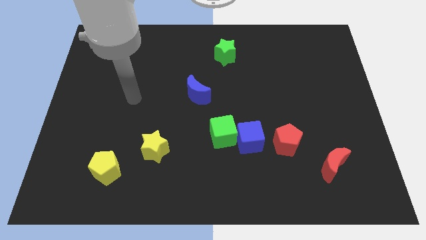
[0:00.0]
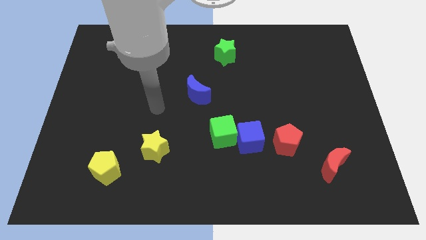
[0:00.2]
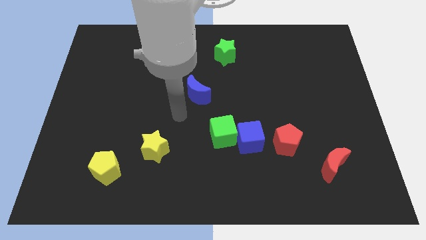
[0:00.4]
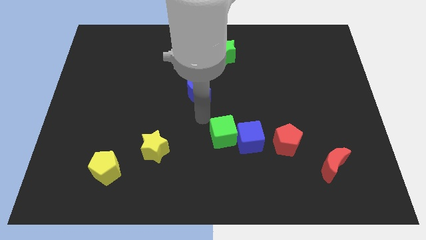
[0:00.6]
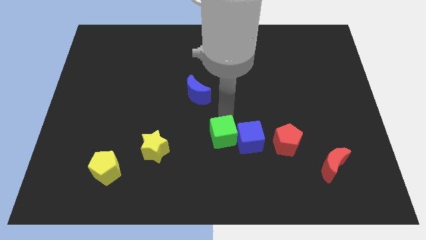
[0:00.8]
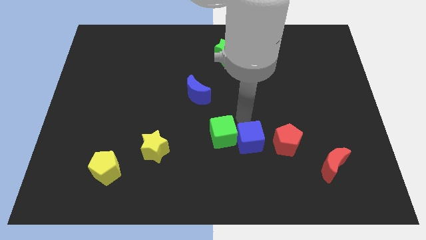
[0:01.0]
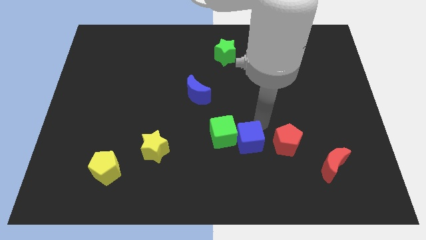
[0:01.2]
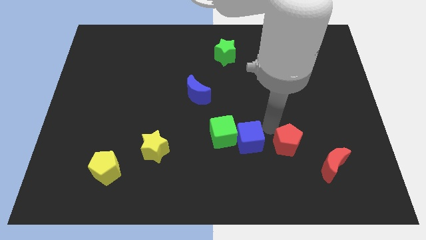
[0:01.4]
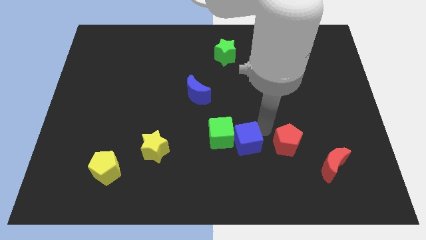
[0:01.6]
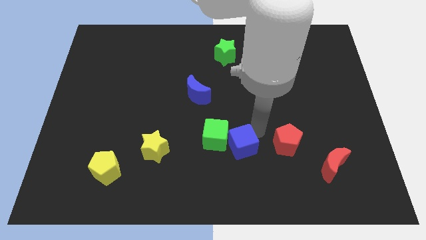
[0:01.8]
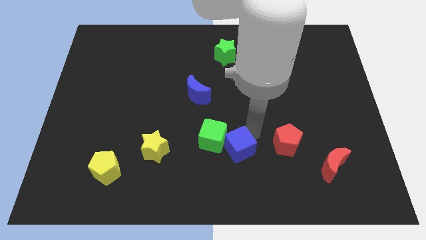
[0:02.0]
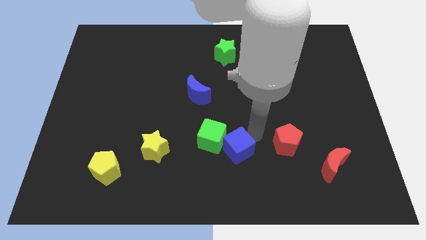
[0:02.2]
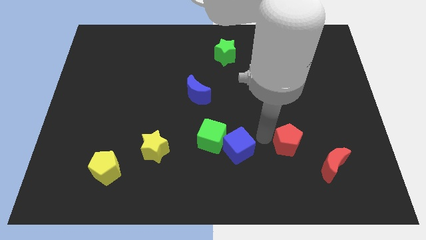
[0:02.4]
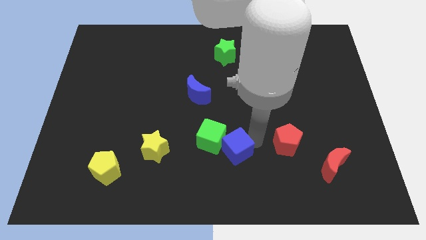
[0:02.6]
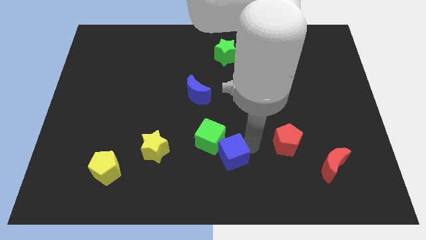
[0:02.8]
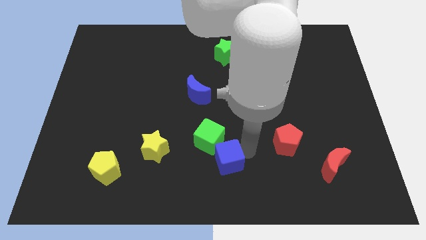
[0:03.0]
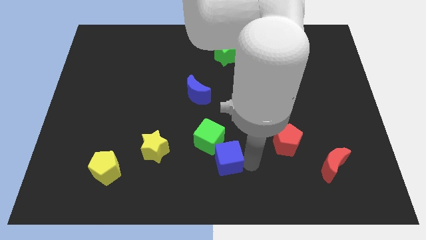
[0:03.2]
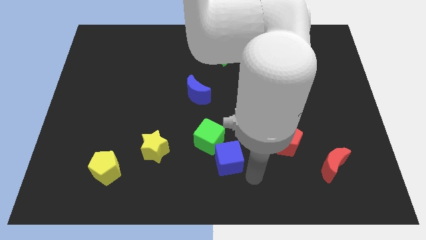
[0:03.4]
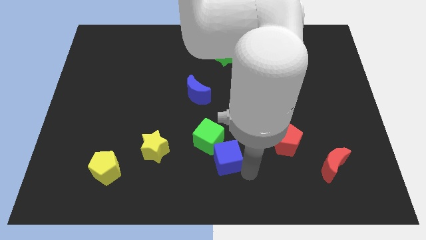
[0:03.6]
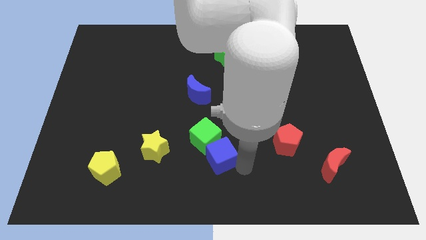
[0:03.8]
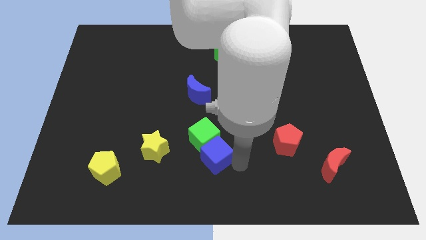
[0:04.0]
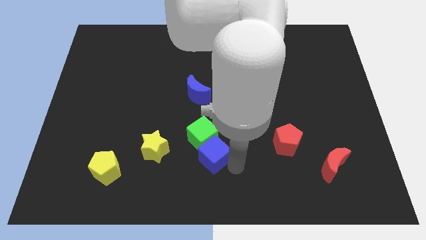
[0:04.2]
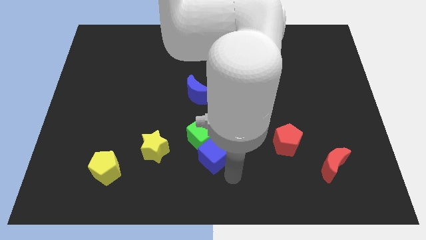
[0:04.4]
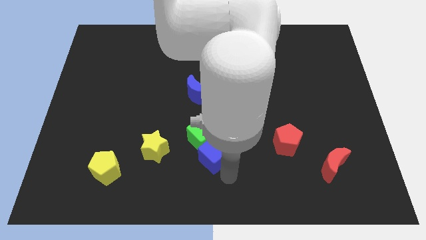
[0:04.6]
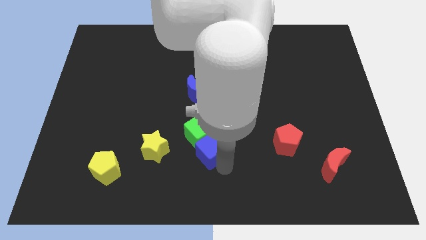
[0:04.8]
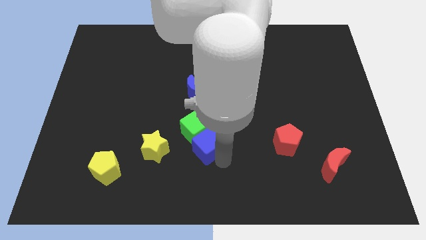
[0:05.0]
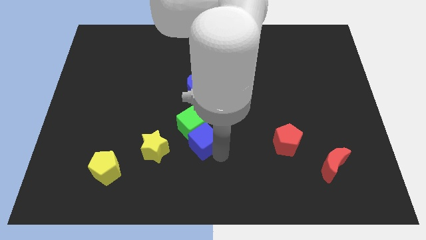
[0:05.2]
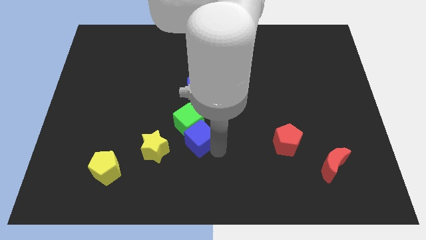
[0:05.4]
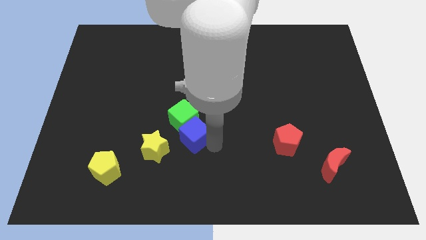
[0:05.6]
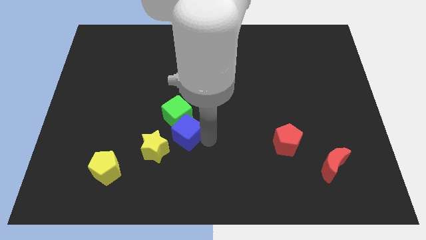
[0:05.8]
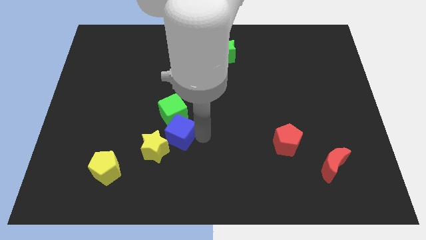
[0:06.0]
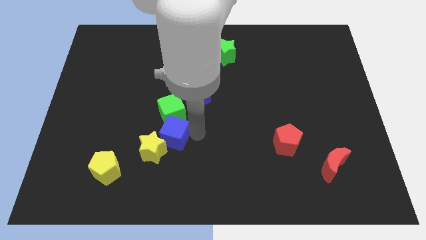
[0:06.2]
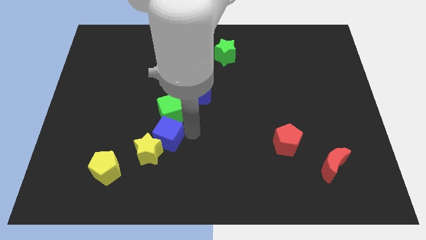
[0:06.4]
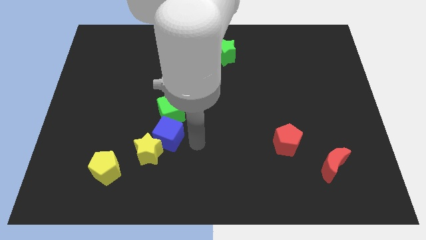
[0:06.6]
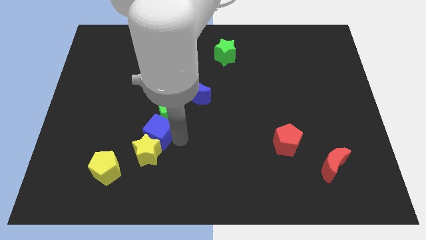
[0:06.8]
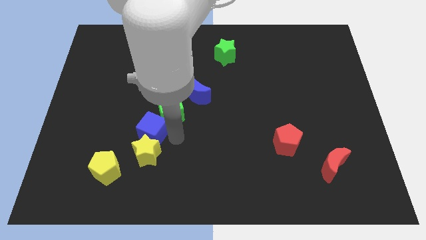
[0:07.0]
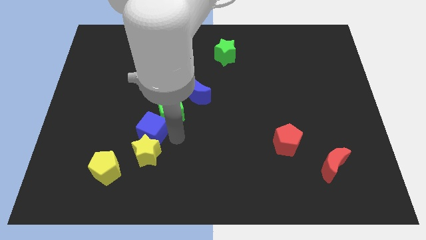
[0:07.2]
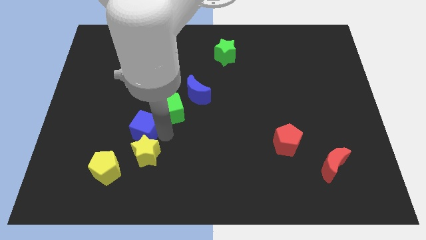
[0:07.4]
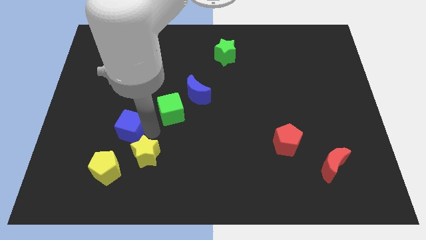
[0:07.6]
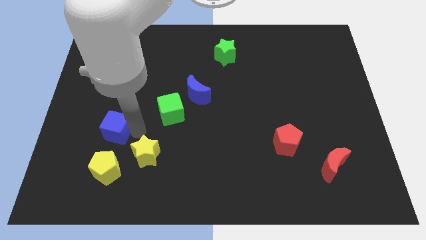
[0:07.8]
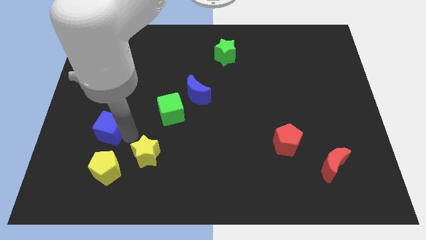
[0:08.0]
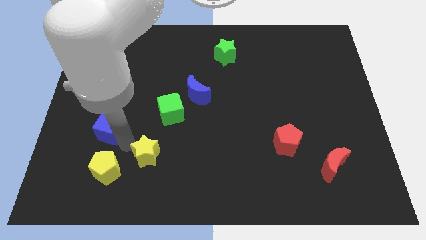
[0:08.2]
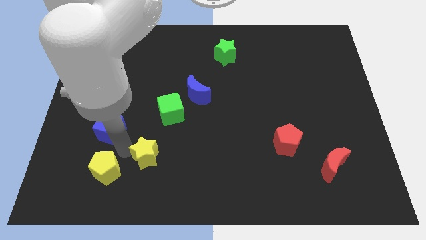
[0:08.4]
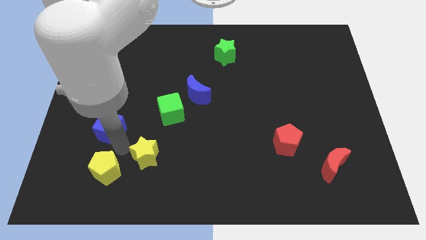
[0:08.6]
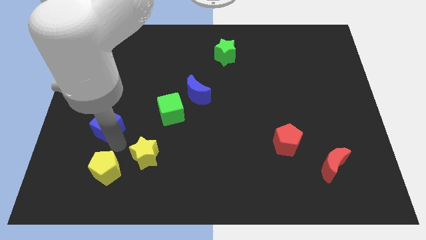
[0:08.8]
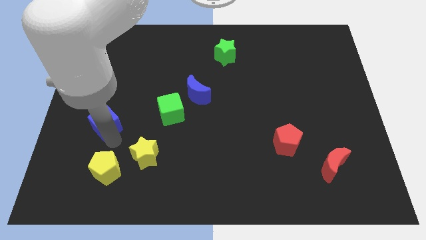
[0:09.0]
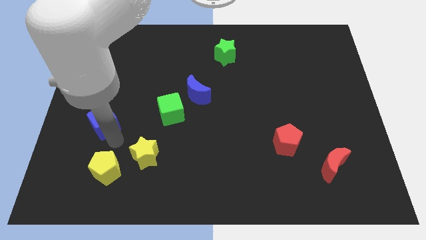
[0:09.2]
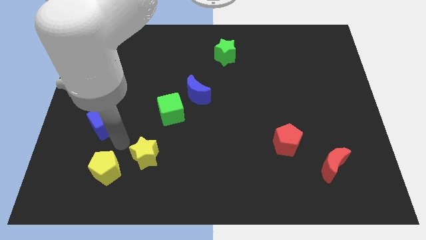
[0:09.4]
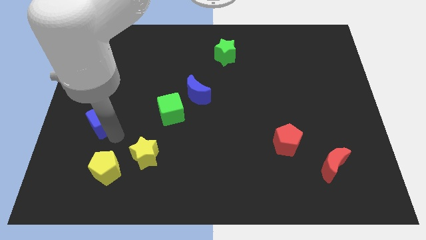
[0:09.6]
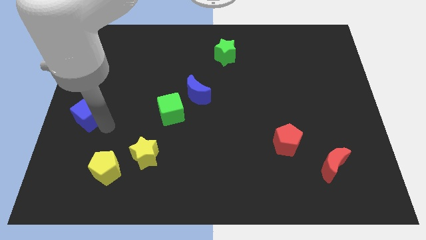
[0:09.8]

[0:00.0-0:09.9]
put the blue cube to the center left

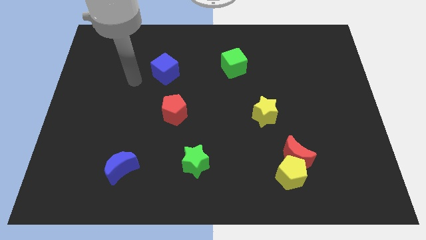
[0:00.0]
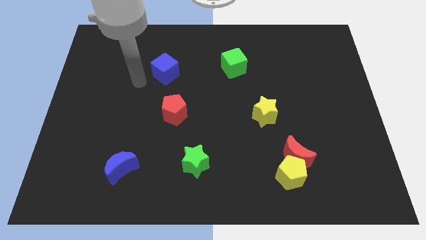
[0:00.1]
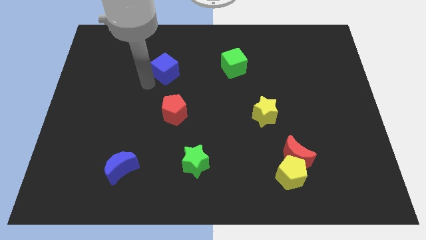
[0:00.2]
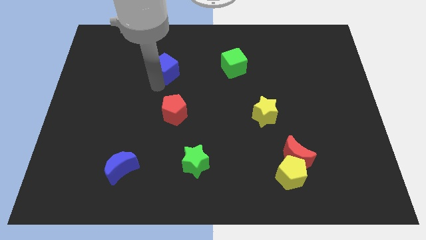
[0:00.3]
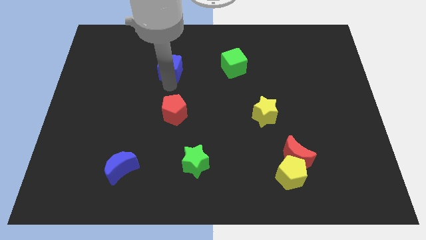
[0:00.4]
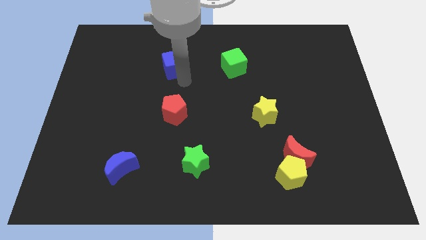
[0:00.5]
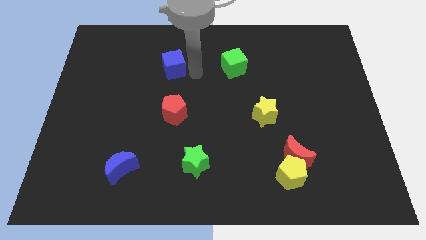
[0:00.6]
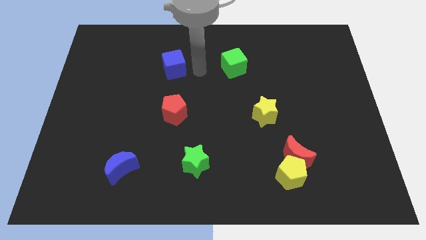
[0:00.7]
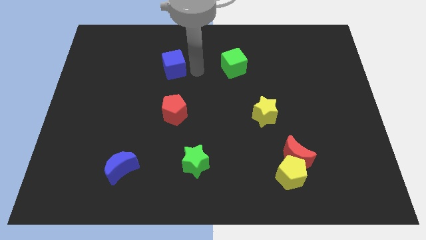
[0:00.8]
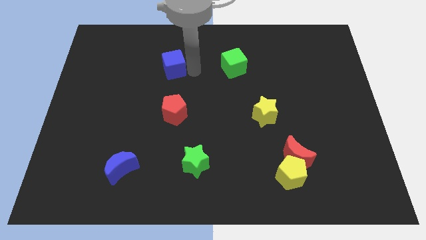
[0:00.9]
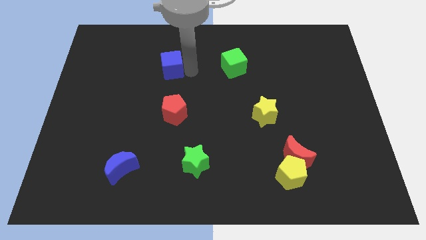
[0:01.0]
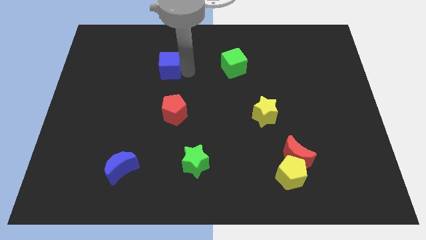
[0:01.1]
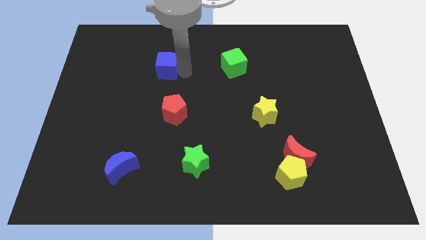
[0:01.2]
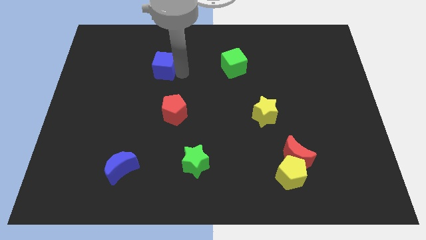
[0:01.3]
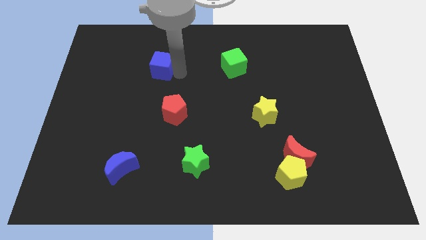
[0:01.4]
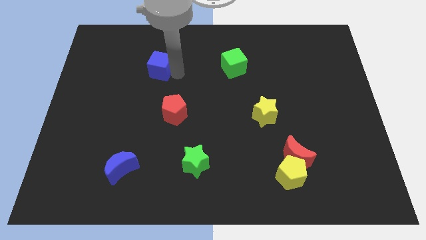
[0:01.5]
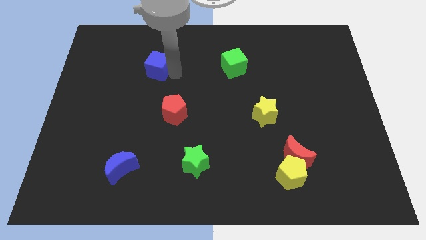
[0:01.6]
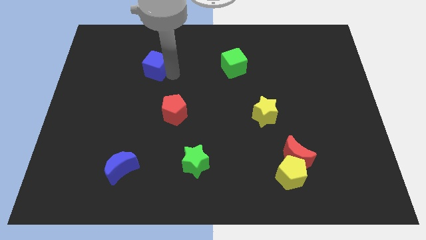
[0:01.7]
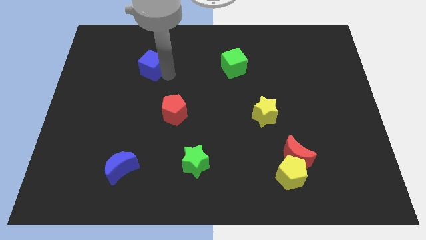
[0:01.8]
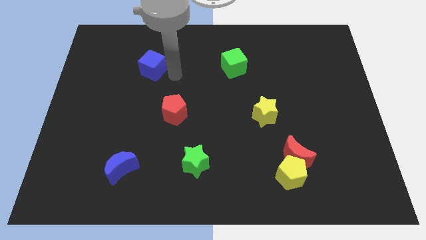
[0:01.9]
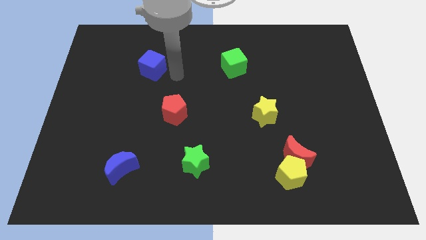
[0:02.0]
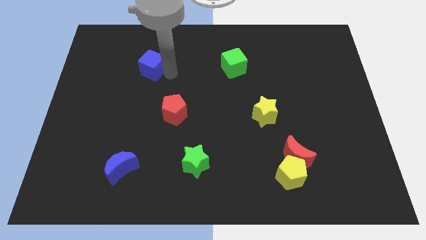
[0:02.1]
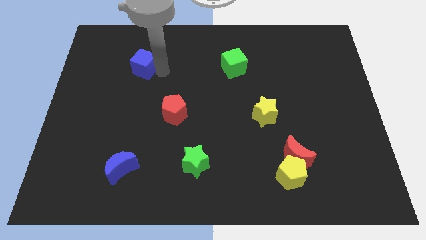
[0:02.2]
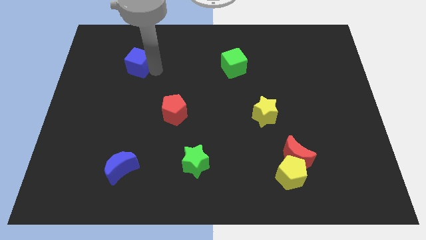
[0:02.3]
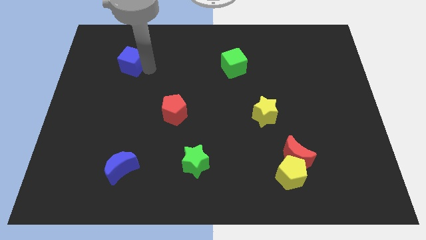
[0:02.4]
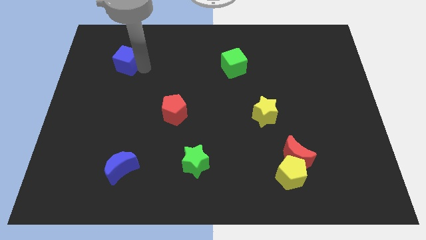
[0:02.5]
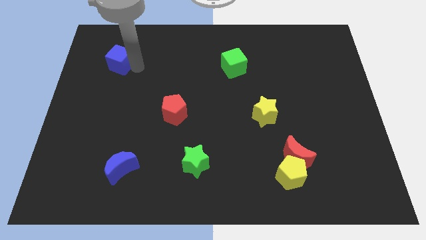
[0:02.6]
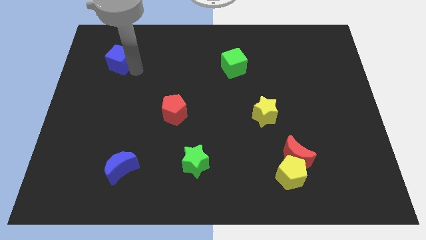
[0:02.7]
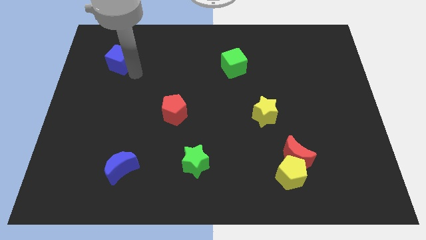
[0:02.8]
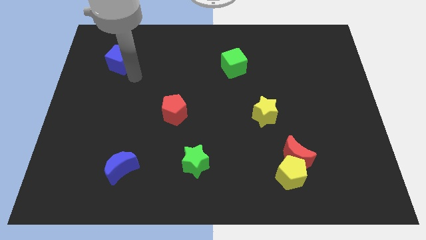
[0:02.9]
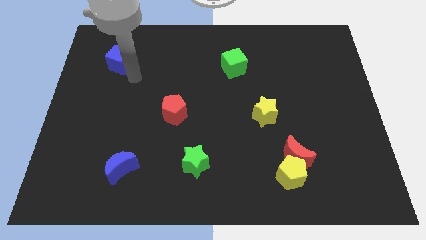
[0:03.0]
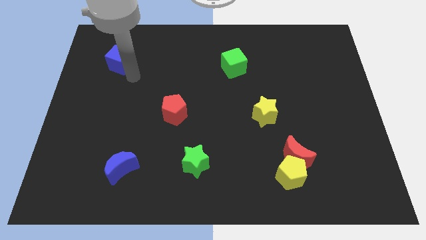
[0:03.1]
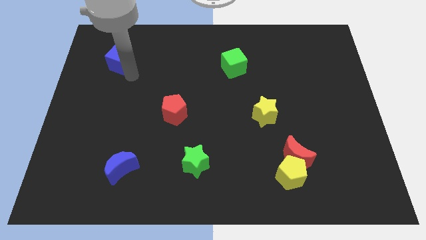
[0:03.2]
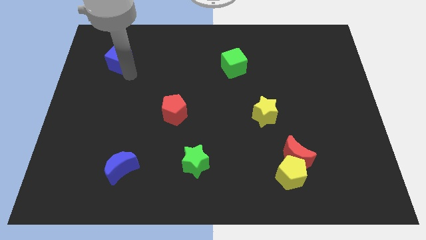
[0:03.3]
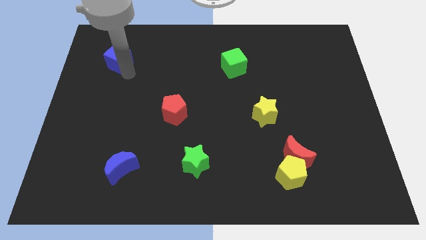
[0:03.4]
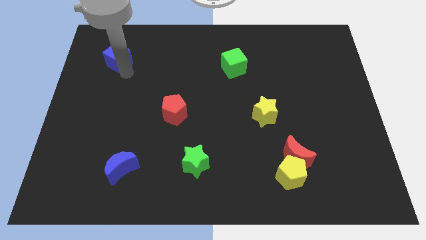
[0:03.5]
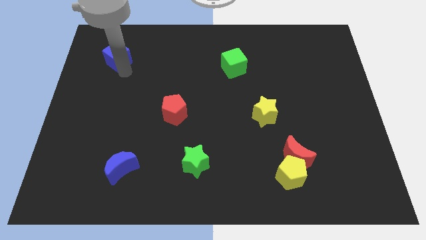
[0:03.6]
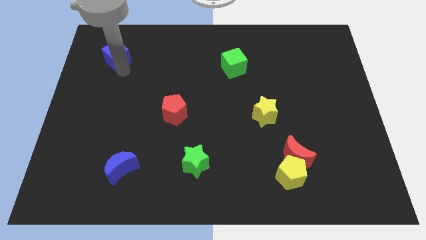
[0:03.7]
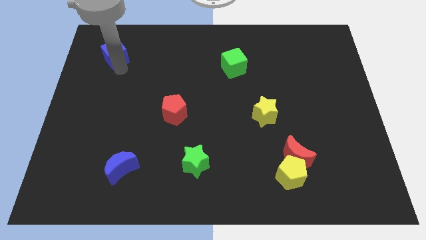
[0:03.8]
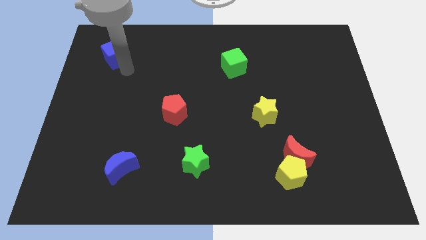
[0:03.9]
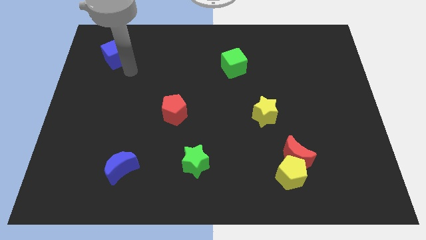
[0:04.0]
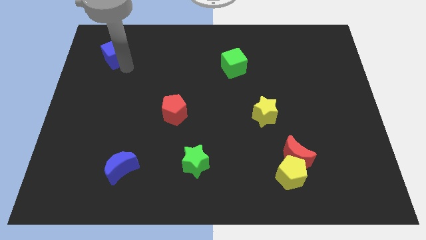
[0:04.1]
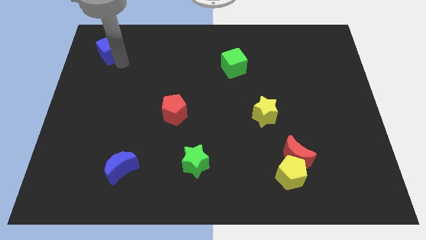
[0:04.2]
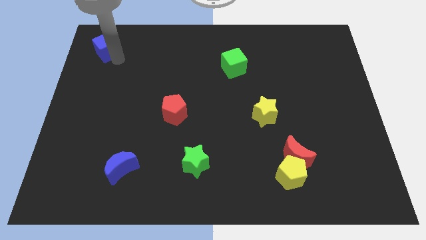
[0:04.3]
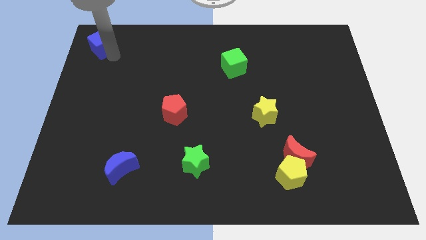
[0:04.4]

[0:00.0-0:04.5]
push the blue cube to the top left of the board
